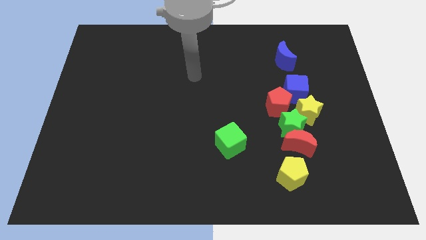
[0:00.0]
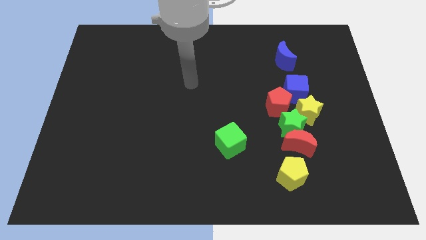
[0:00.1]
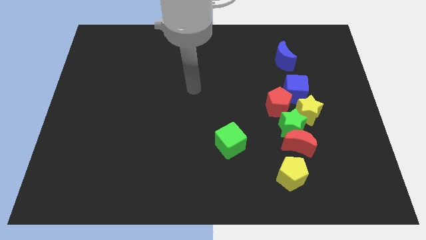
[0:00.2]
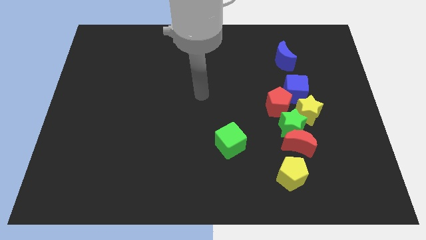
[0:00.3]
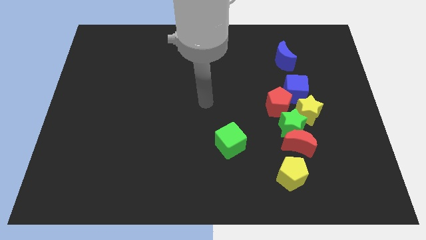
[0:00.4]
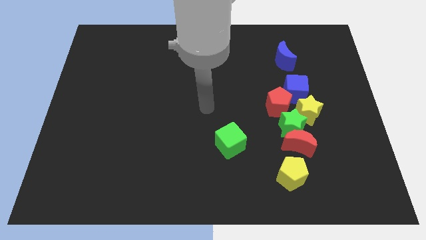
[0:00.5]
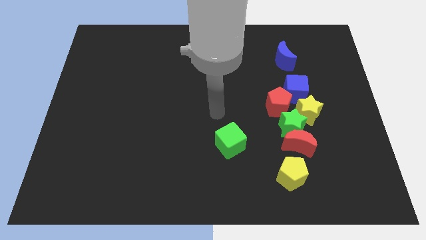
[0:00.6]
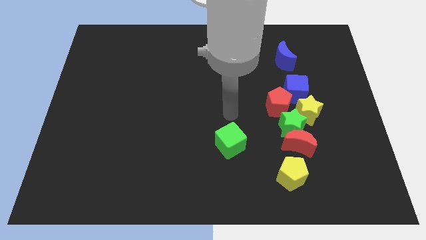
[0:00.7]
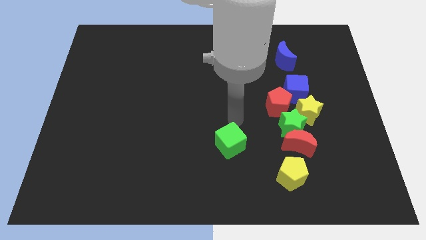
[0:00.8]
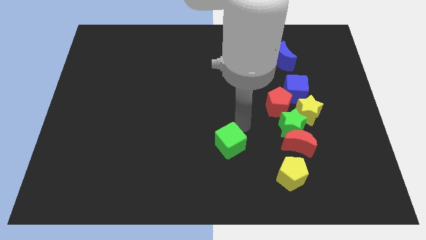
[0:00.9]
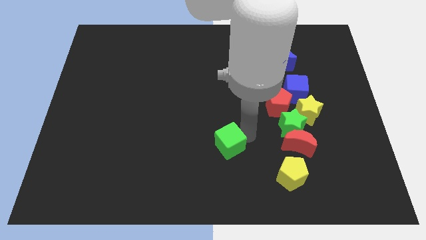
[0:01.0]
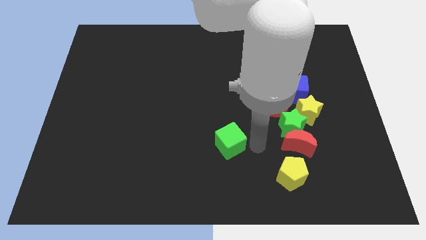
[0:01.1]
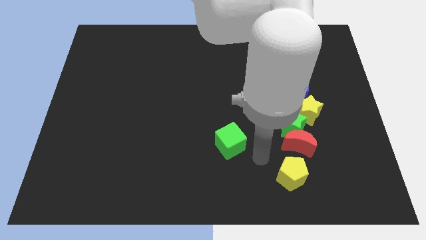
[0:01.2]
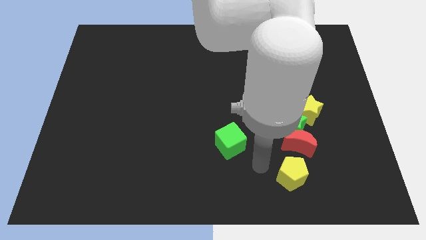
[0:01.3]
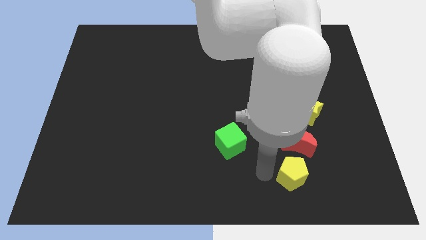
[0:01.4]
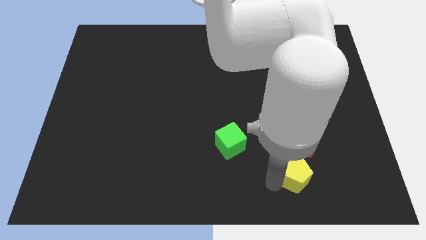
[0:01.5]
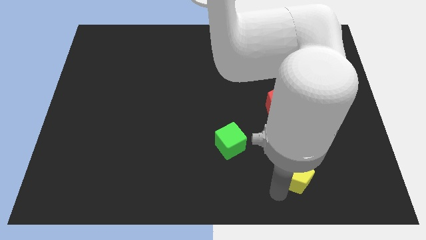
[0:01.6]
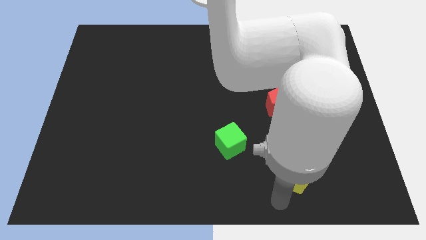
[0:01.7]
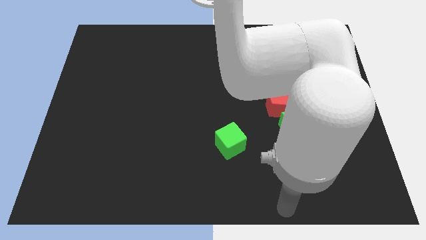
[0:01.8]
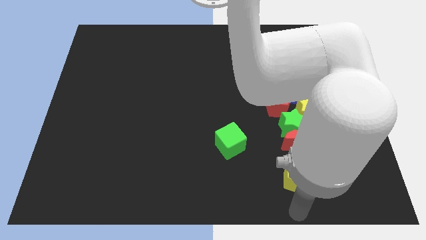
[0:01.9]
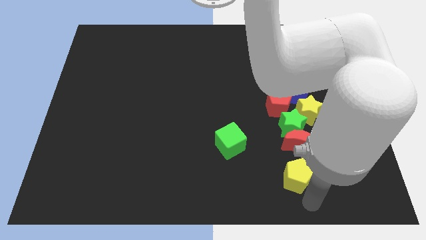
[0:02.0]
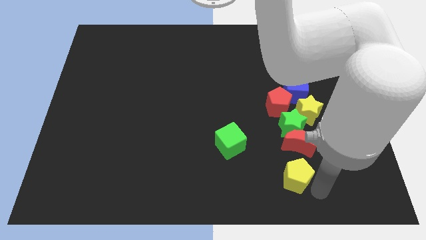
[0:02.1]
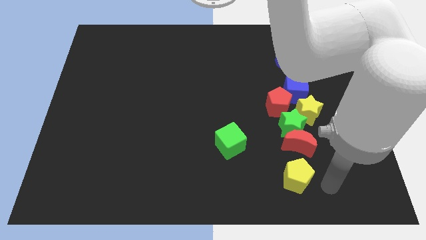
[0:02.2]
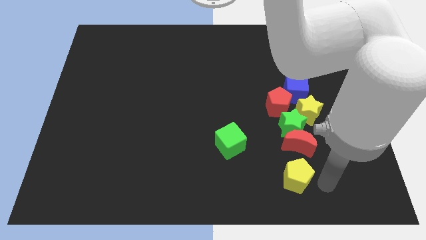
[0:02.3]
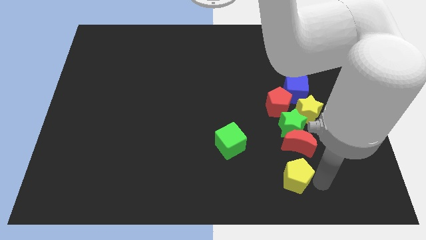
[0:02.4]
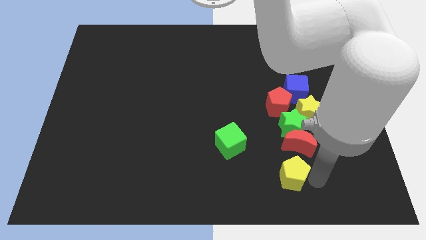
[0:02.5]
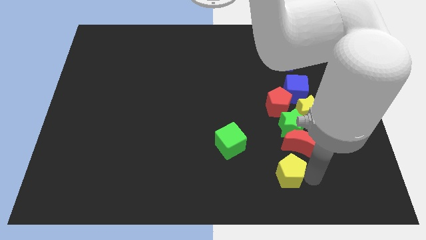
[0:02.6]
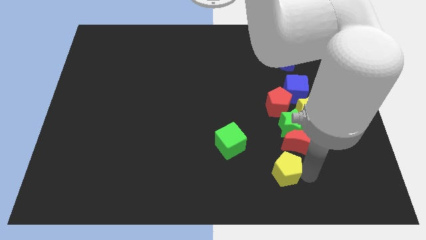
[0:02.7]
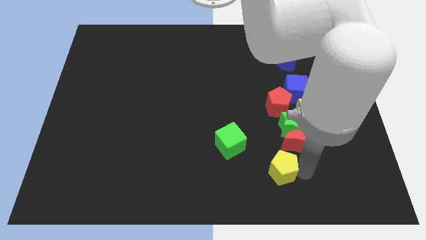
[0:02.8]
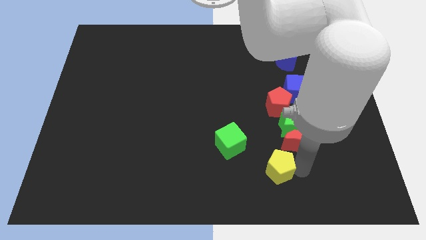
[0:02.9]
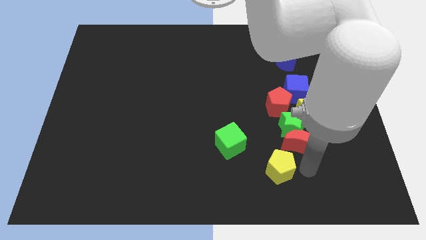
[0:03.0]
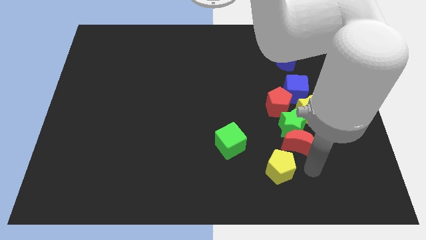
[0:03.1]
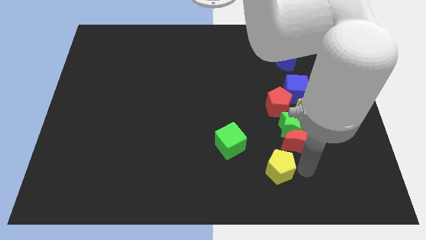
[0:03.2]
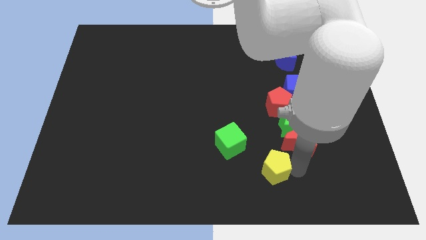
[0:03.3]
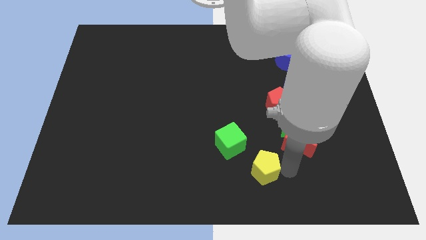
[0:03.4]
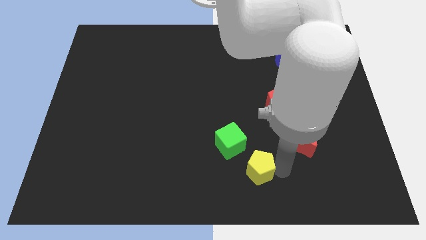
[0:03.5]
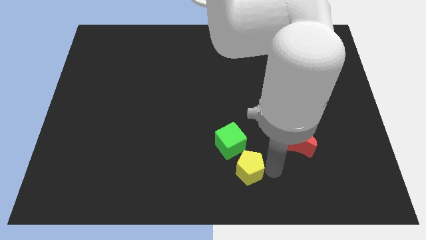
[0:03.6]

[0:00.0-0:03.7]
slightly slide the yellow pentagon to the left

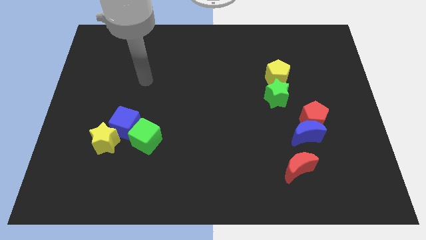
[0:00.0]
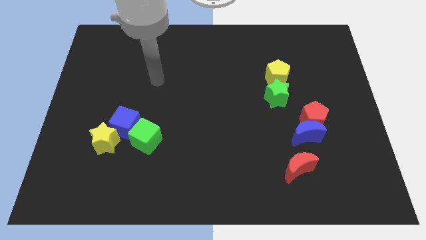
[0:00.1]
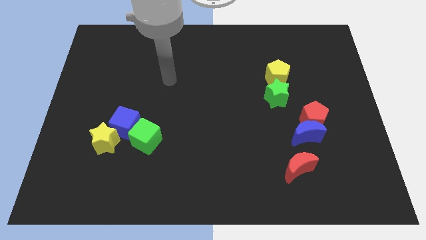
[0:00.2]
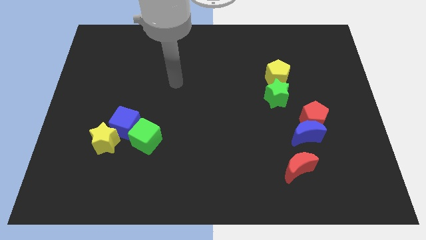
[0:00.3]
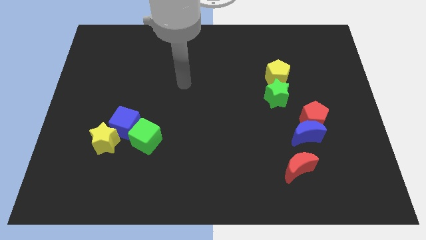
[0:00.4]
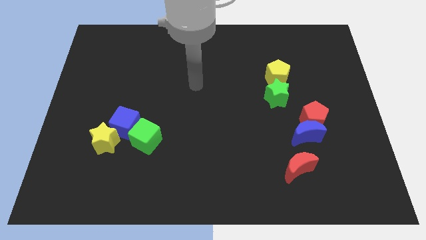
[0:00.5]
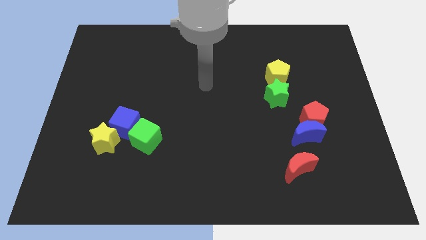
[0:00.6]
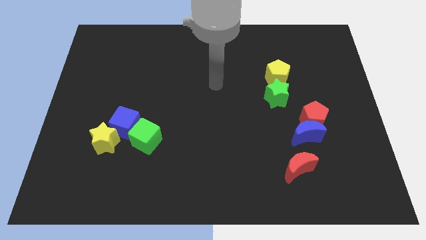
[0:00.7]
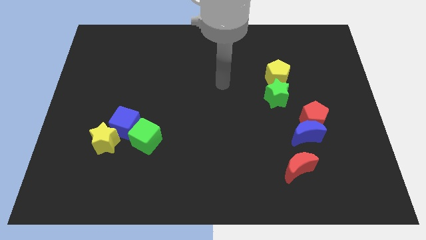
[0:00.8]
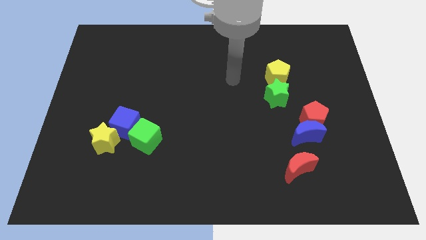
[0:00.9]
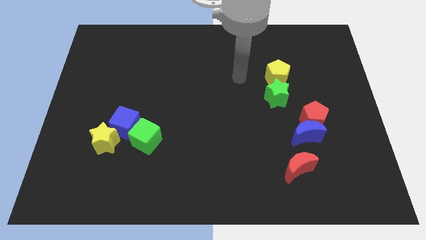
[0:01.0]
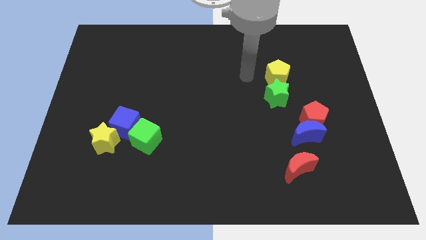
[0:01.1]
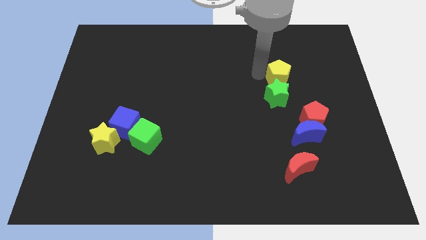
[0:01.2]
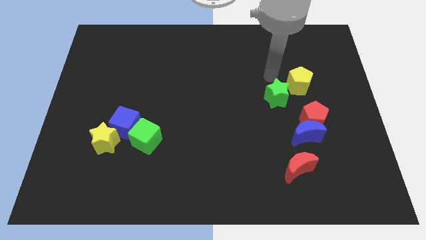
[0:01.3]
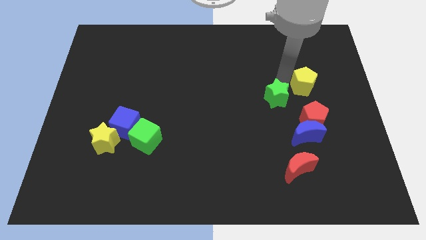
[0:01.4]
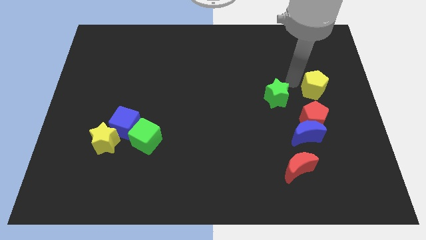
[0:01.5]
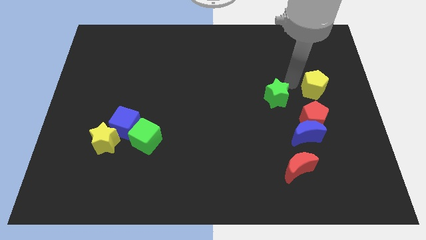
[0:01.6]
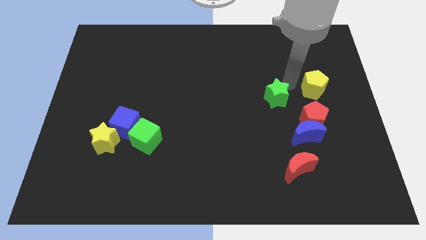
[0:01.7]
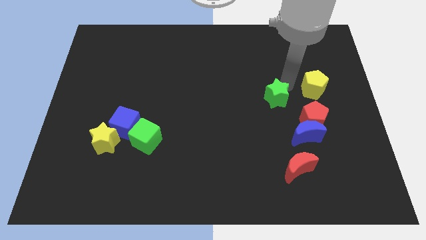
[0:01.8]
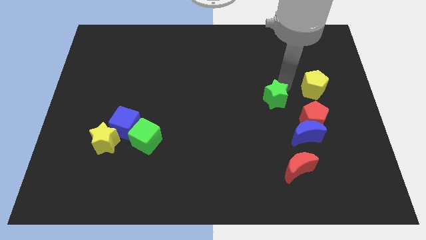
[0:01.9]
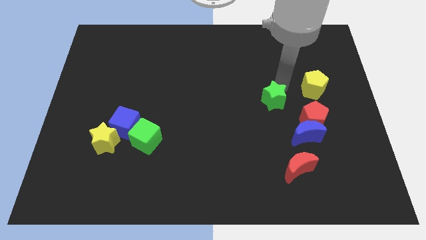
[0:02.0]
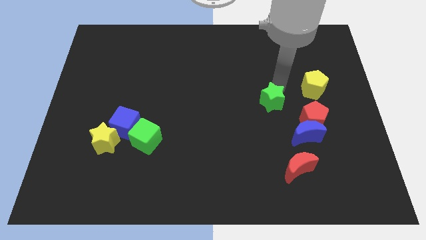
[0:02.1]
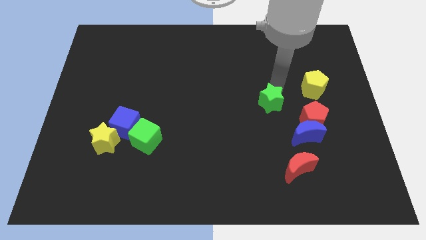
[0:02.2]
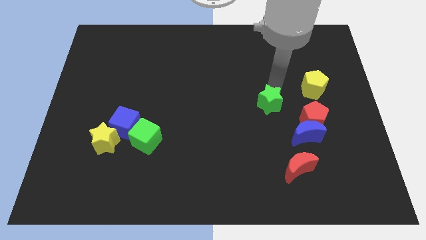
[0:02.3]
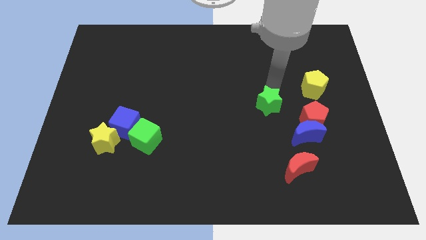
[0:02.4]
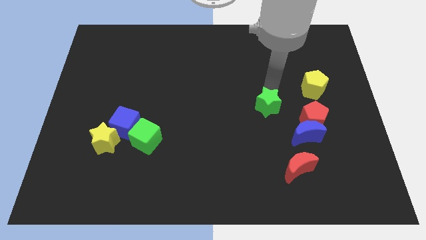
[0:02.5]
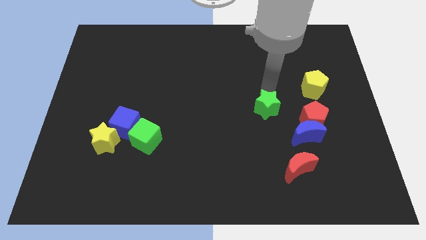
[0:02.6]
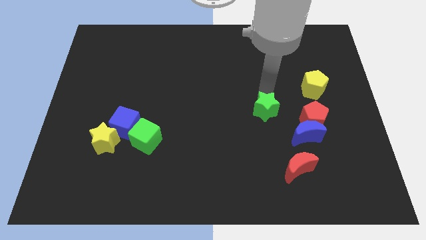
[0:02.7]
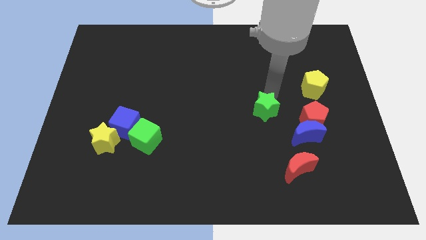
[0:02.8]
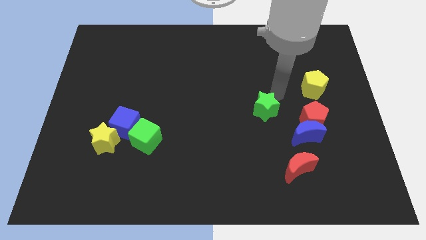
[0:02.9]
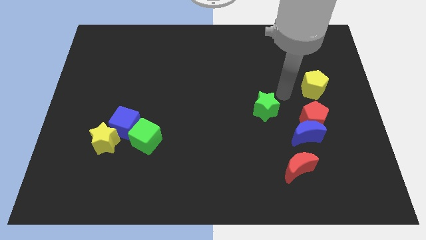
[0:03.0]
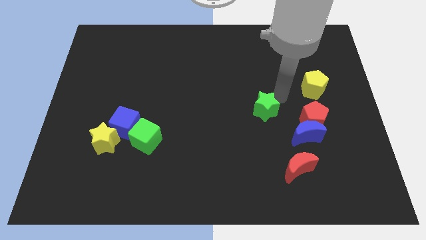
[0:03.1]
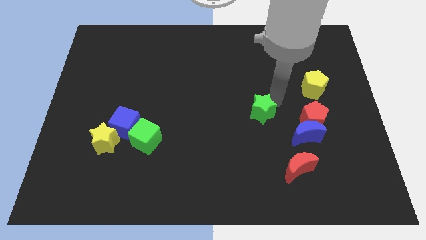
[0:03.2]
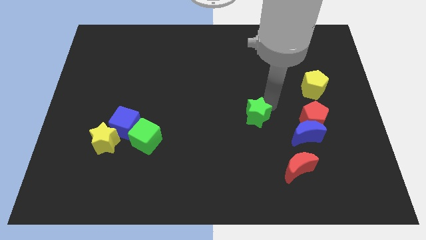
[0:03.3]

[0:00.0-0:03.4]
push the green star somewhat diagonally down and to the left

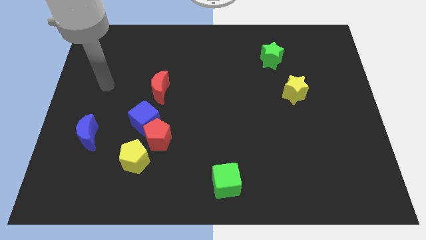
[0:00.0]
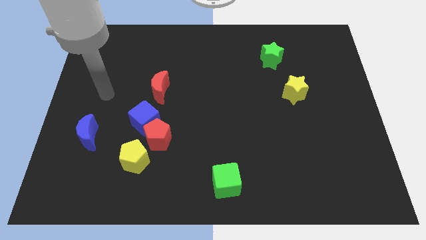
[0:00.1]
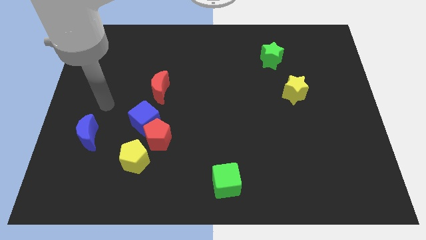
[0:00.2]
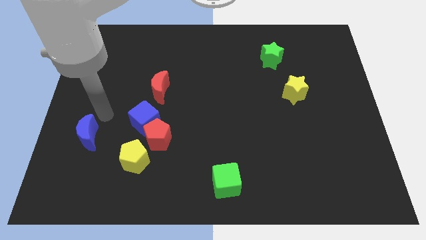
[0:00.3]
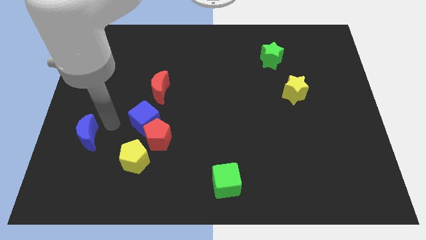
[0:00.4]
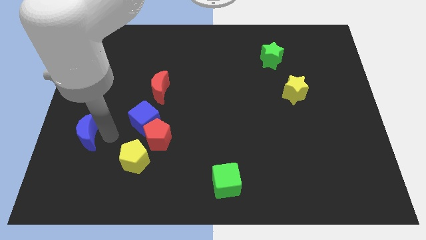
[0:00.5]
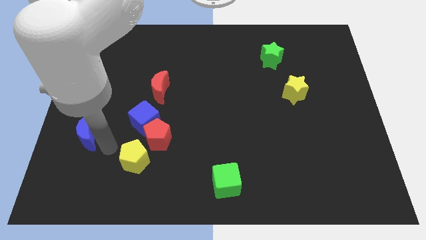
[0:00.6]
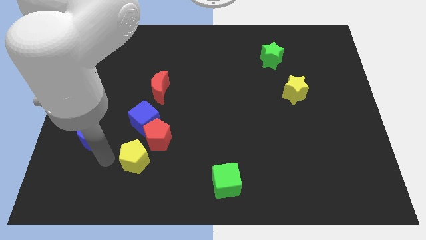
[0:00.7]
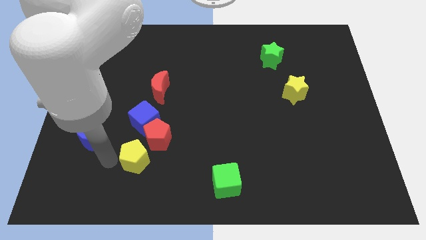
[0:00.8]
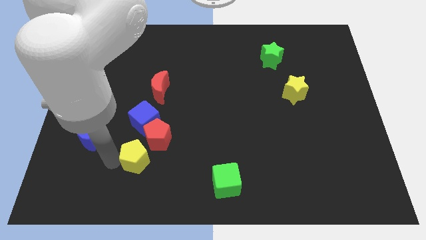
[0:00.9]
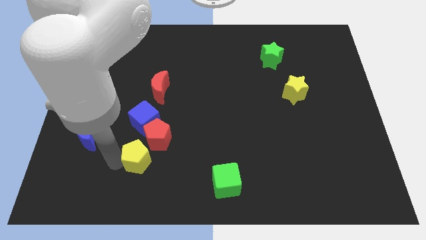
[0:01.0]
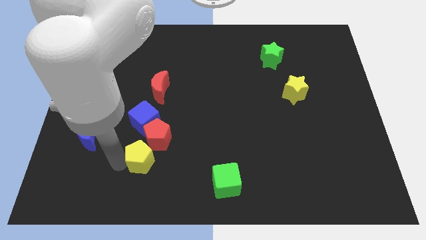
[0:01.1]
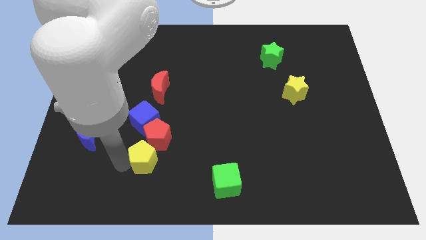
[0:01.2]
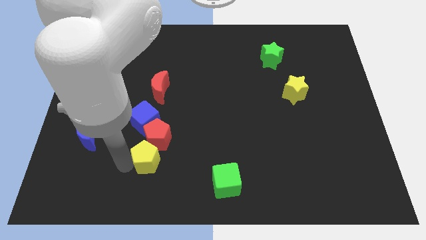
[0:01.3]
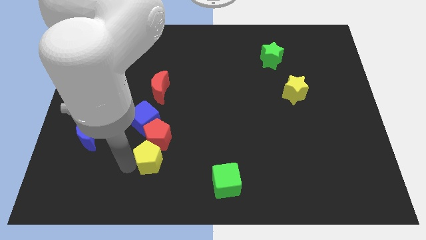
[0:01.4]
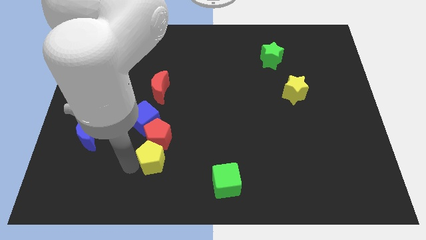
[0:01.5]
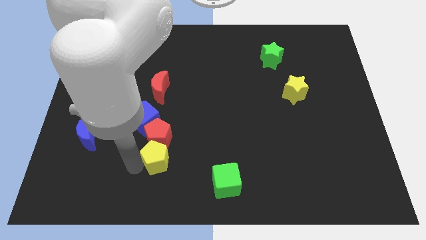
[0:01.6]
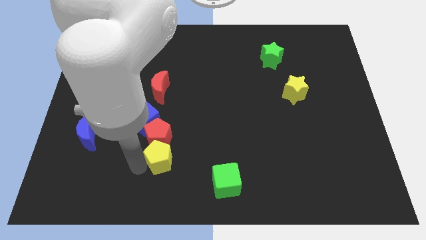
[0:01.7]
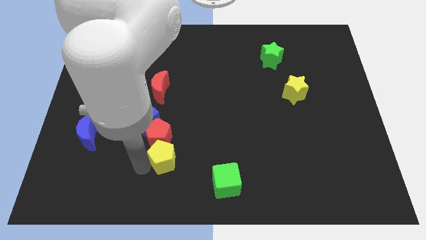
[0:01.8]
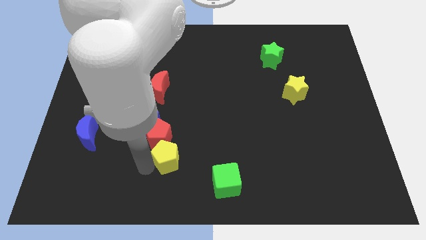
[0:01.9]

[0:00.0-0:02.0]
slide the yellow pentagon somewhat right
